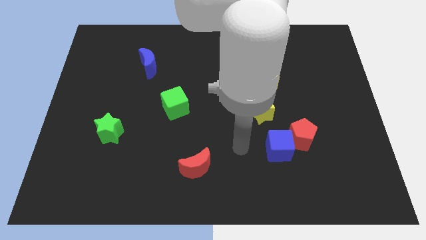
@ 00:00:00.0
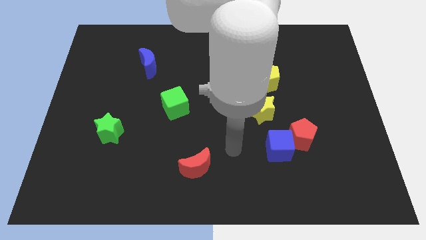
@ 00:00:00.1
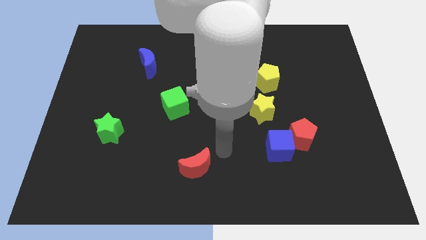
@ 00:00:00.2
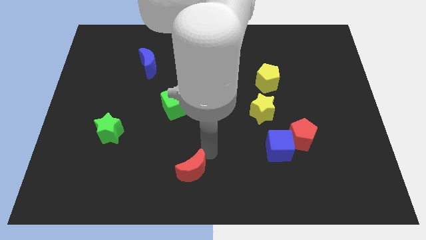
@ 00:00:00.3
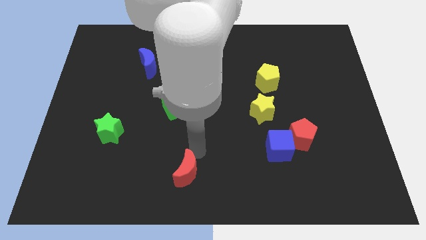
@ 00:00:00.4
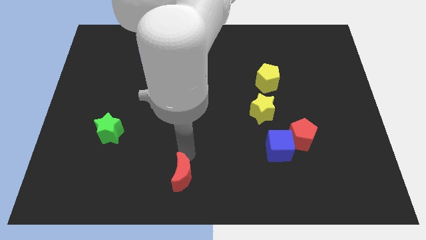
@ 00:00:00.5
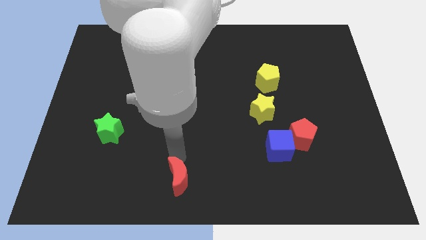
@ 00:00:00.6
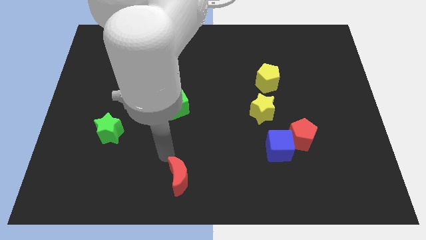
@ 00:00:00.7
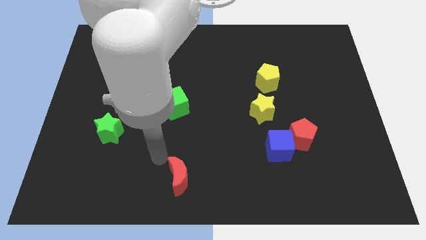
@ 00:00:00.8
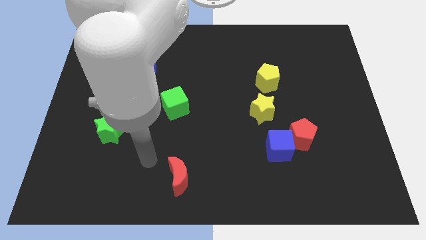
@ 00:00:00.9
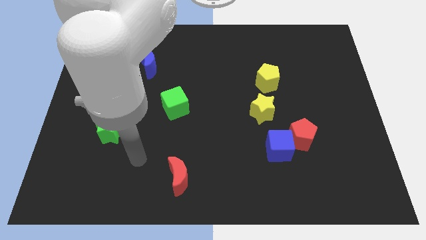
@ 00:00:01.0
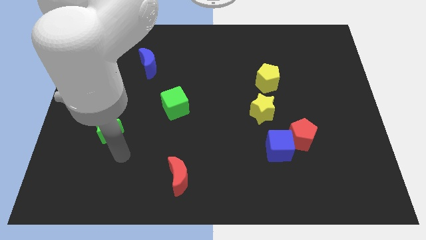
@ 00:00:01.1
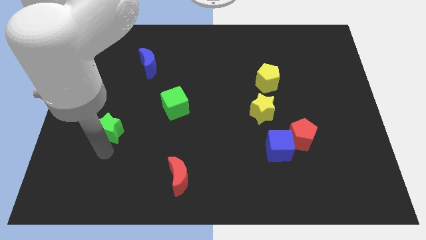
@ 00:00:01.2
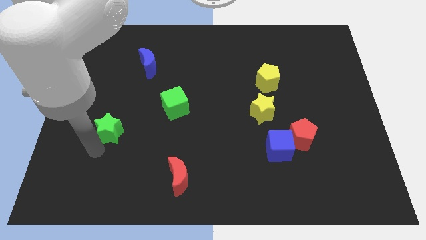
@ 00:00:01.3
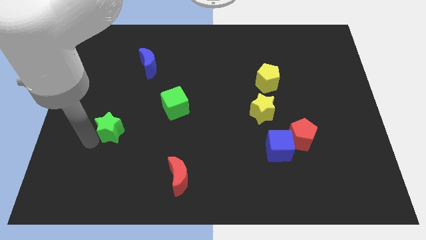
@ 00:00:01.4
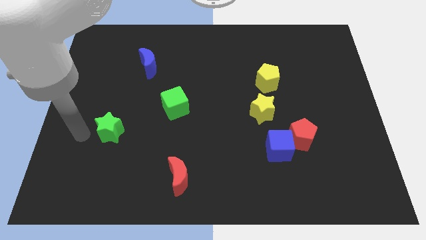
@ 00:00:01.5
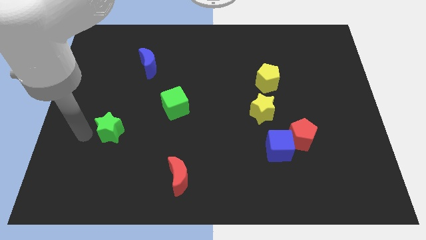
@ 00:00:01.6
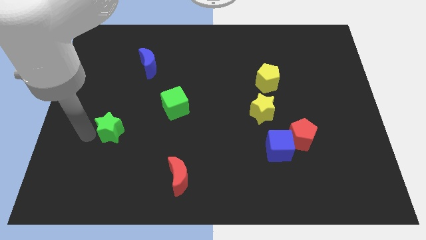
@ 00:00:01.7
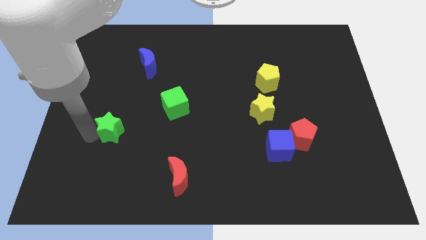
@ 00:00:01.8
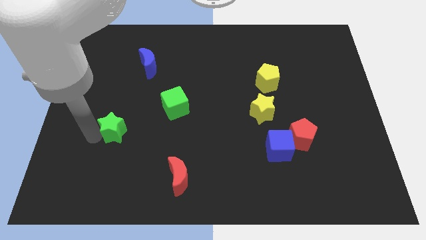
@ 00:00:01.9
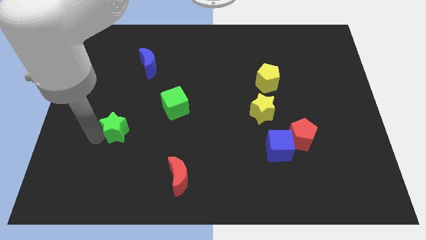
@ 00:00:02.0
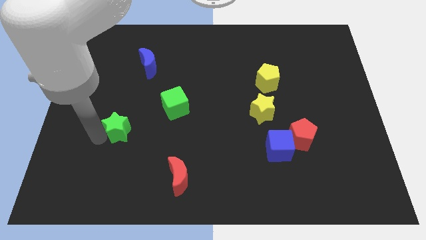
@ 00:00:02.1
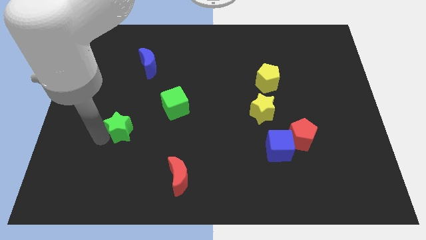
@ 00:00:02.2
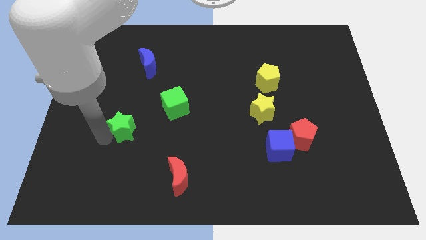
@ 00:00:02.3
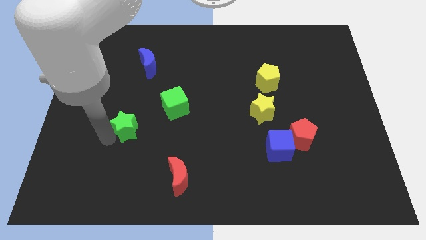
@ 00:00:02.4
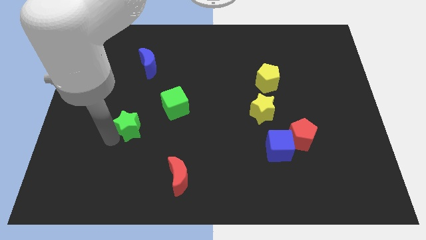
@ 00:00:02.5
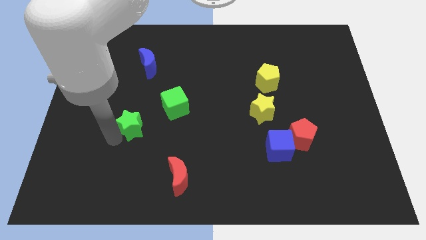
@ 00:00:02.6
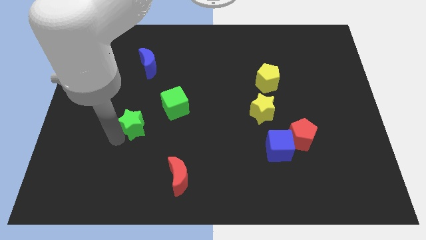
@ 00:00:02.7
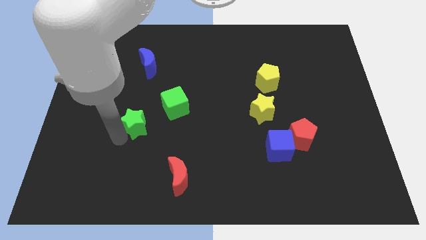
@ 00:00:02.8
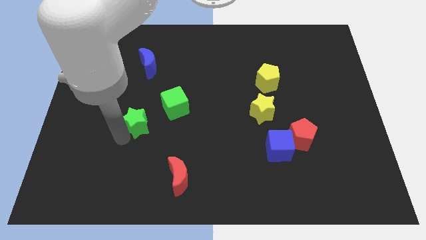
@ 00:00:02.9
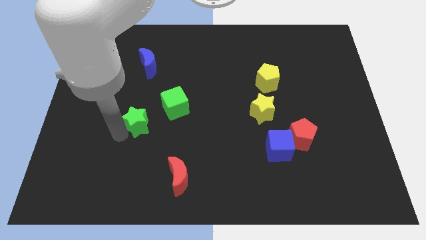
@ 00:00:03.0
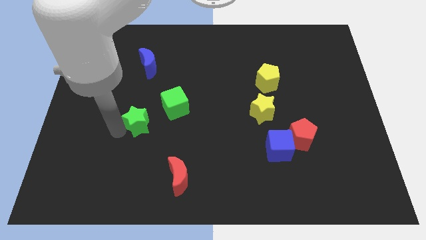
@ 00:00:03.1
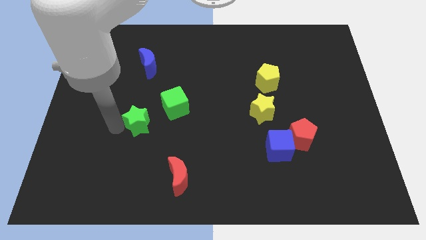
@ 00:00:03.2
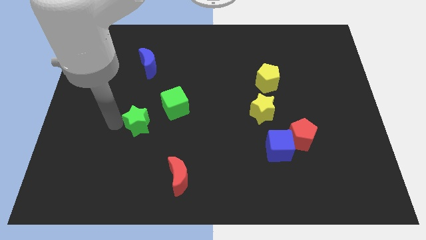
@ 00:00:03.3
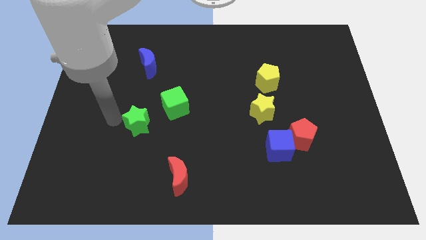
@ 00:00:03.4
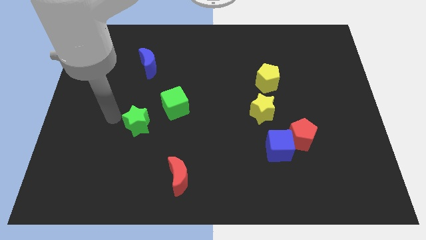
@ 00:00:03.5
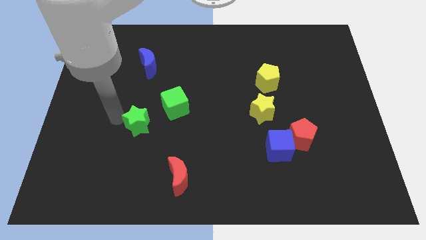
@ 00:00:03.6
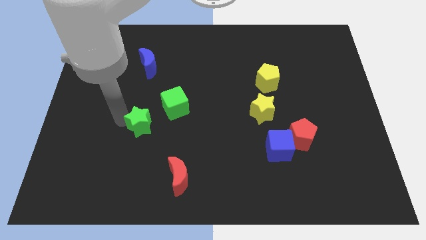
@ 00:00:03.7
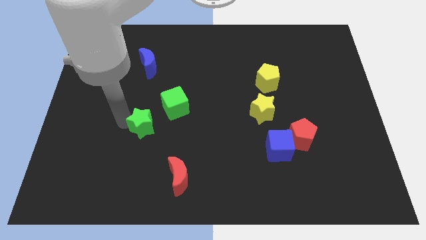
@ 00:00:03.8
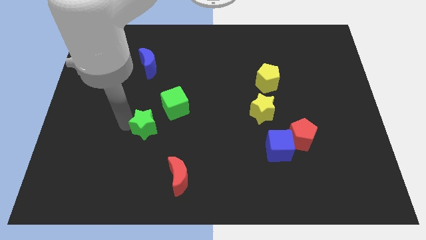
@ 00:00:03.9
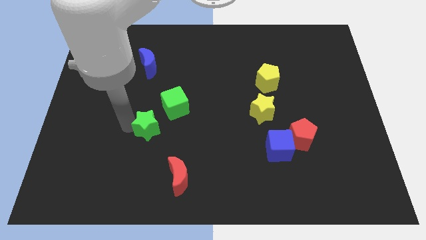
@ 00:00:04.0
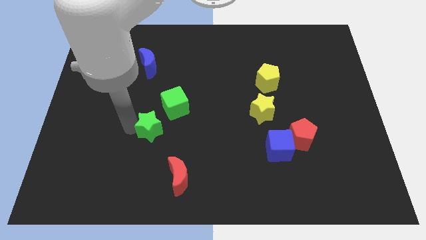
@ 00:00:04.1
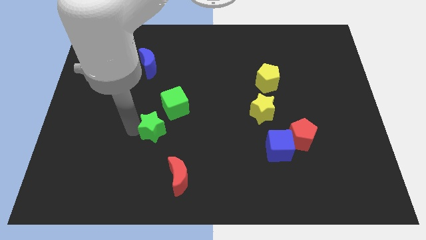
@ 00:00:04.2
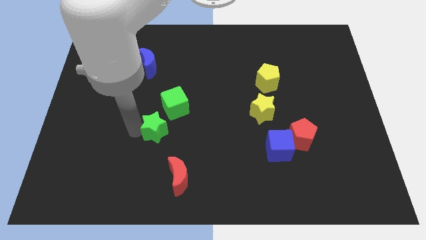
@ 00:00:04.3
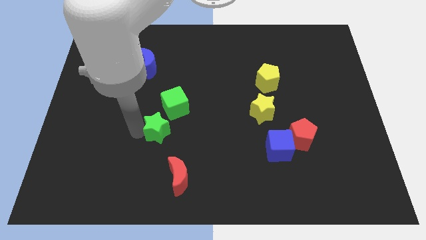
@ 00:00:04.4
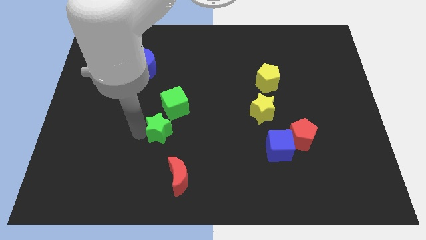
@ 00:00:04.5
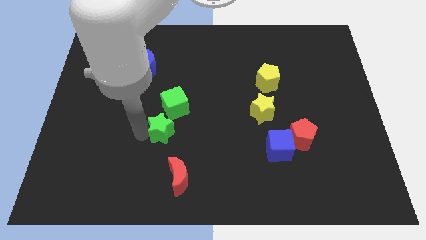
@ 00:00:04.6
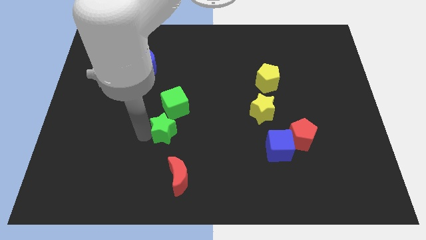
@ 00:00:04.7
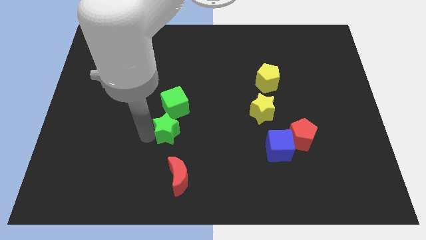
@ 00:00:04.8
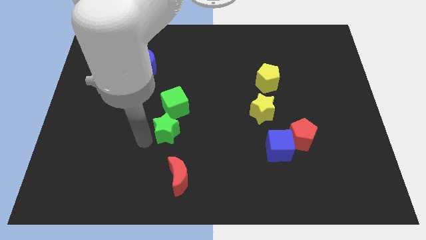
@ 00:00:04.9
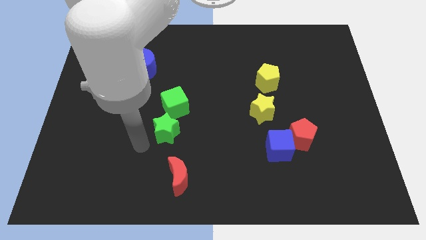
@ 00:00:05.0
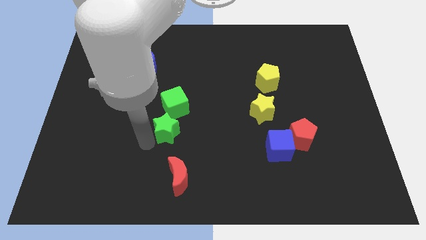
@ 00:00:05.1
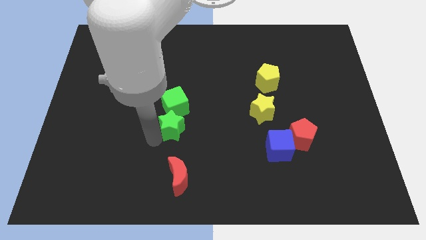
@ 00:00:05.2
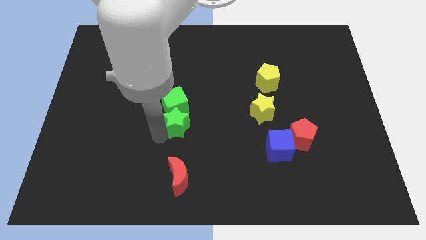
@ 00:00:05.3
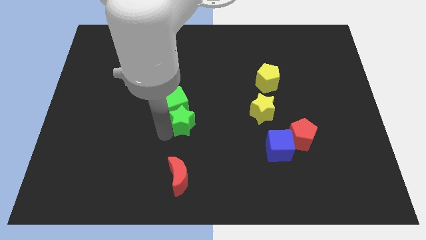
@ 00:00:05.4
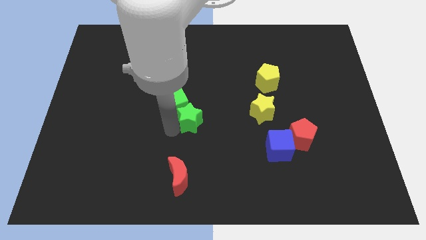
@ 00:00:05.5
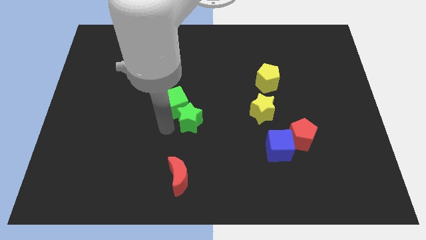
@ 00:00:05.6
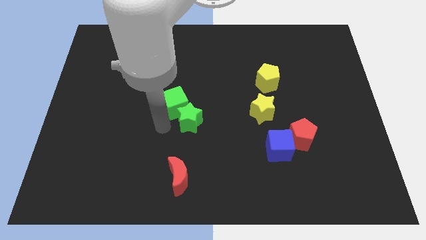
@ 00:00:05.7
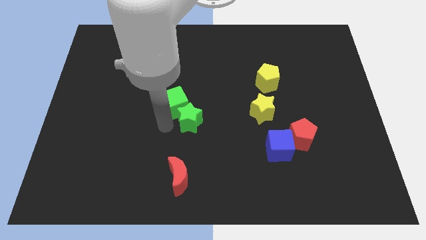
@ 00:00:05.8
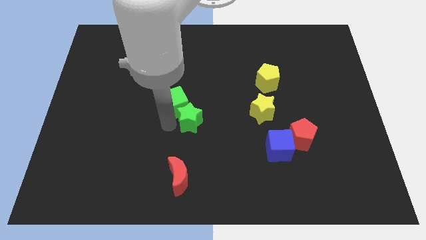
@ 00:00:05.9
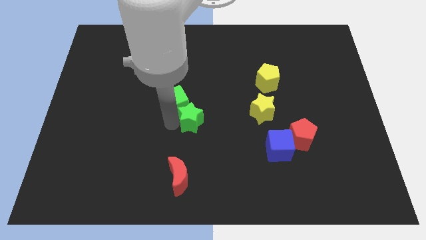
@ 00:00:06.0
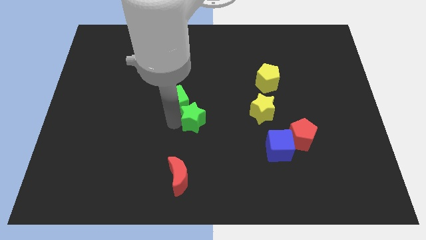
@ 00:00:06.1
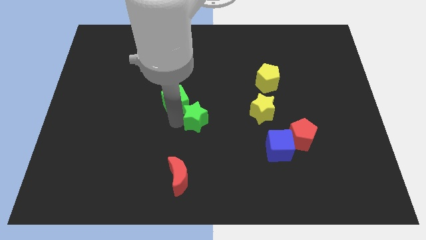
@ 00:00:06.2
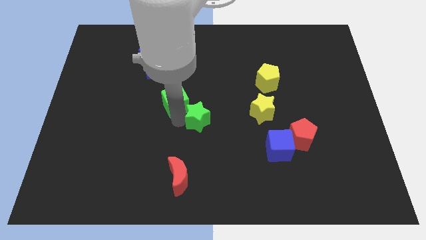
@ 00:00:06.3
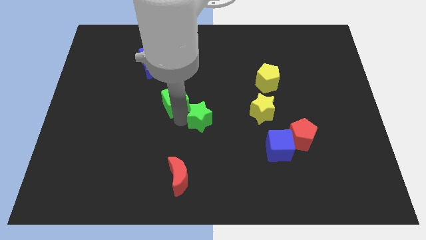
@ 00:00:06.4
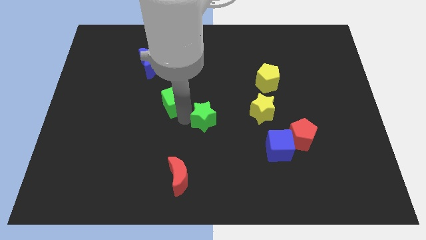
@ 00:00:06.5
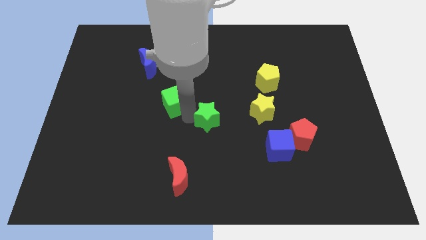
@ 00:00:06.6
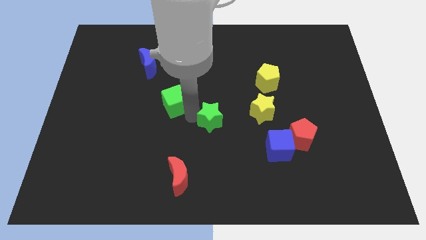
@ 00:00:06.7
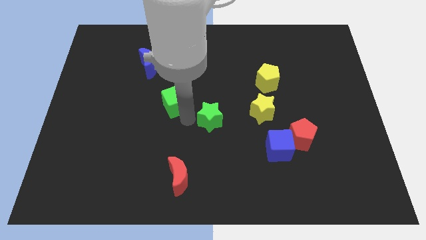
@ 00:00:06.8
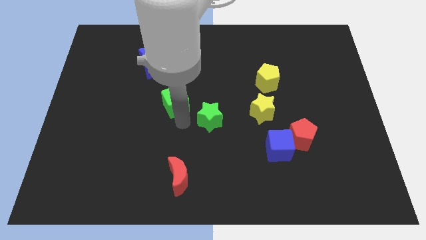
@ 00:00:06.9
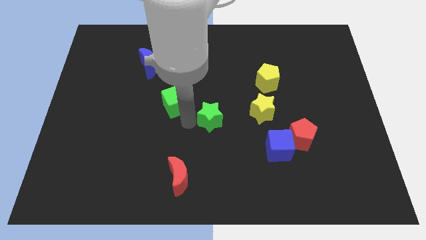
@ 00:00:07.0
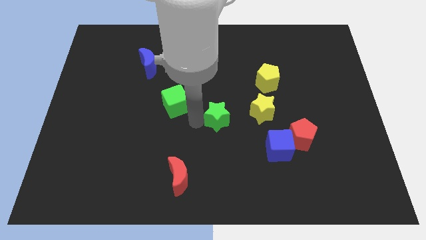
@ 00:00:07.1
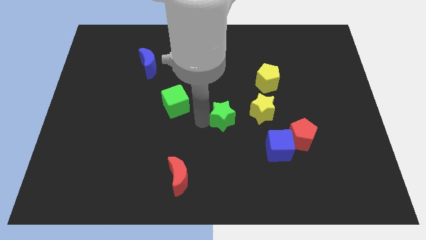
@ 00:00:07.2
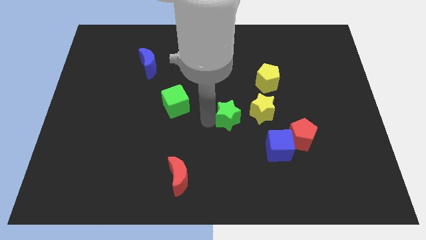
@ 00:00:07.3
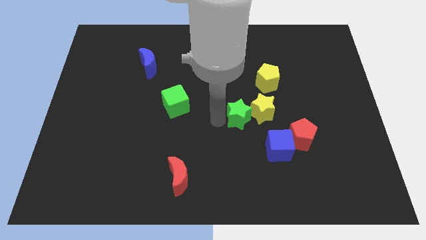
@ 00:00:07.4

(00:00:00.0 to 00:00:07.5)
put the green star close to the yellow star
